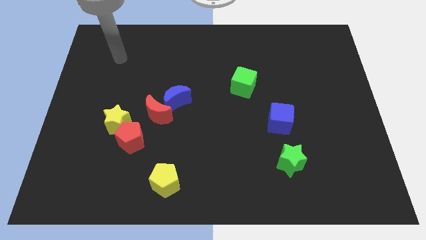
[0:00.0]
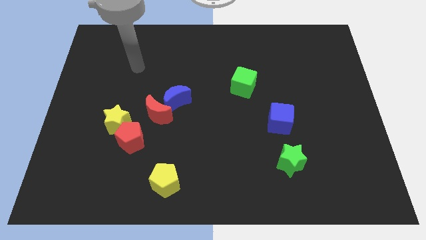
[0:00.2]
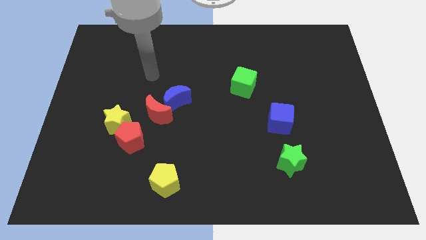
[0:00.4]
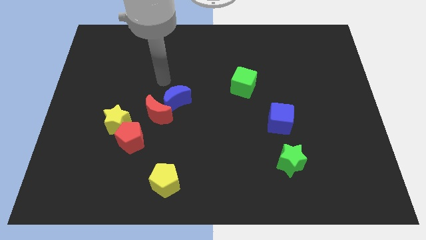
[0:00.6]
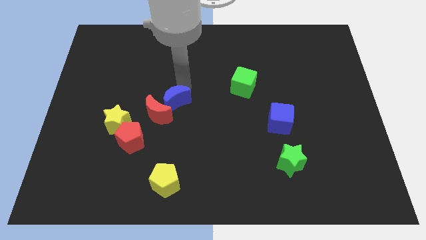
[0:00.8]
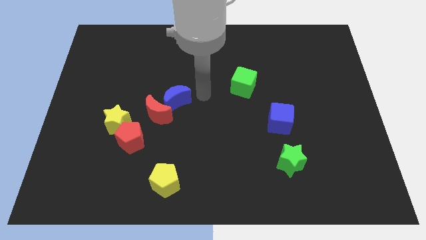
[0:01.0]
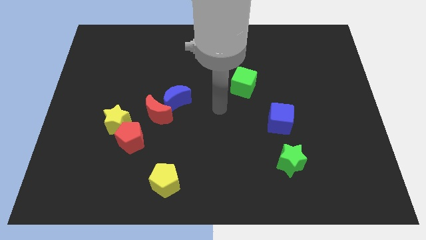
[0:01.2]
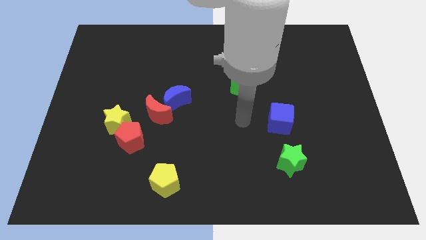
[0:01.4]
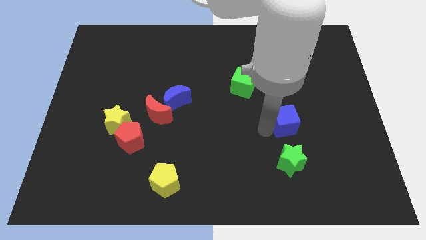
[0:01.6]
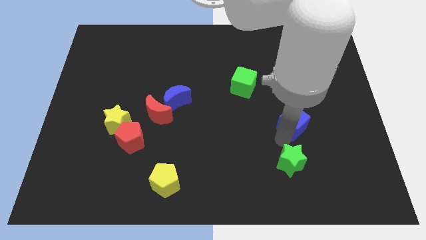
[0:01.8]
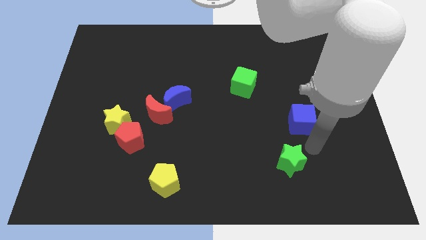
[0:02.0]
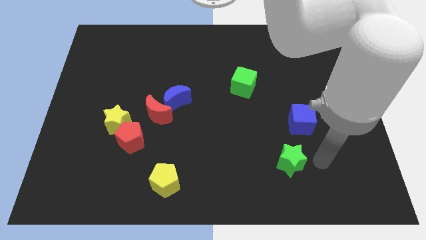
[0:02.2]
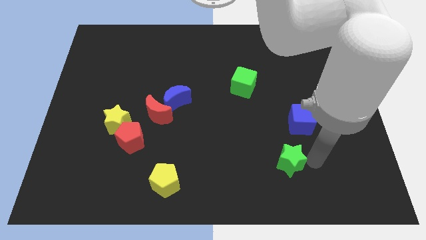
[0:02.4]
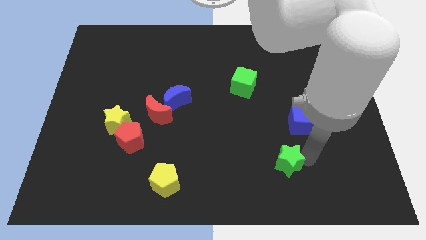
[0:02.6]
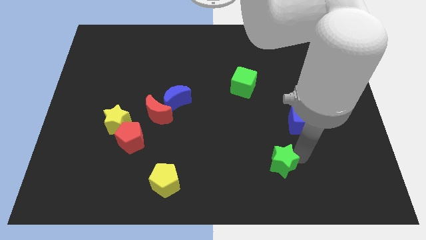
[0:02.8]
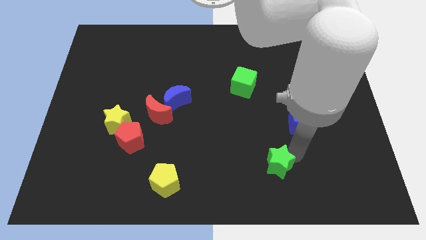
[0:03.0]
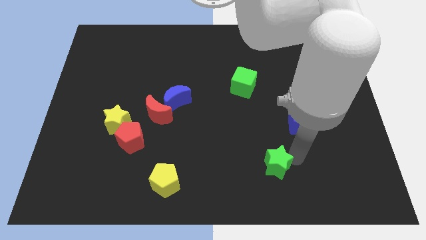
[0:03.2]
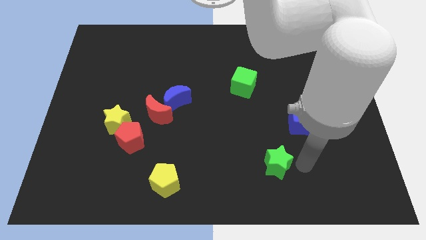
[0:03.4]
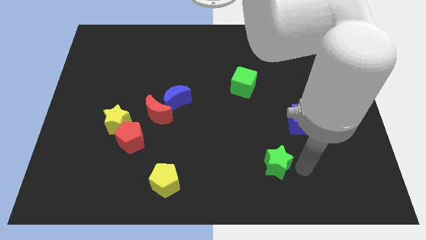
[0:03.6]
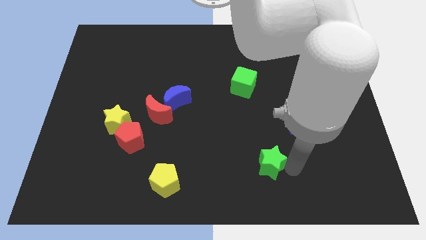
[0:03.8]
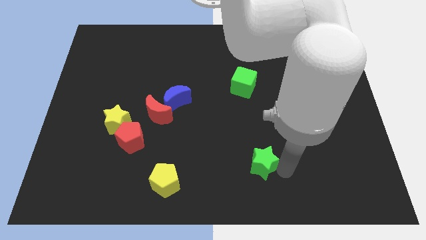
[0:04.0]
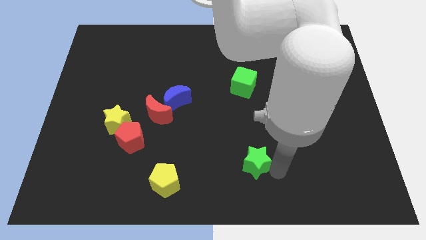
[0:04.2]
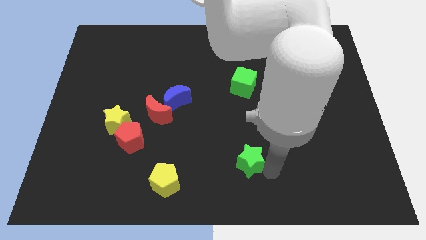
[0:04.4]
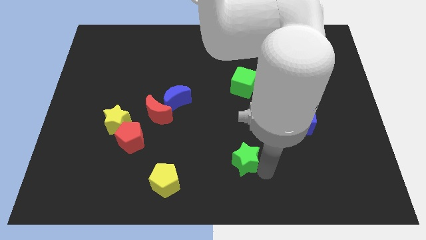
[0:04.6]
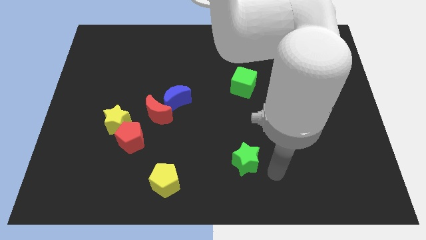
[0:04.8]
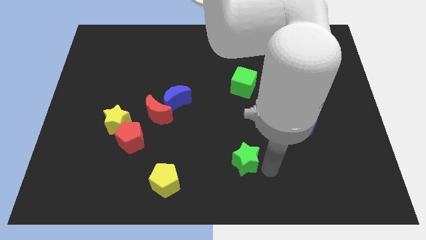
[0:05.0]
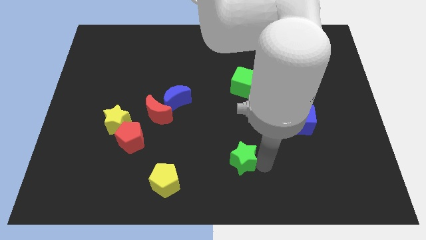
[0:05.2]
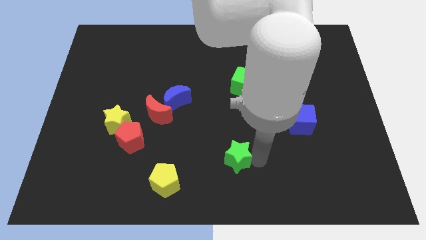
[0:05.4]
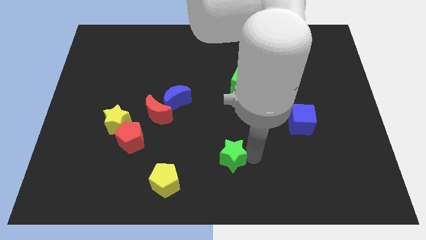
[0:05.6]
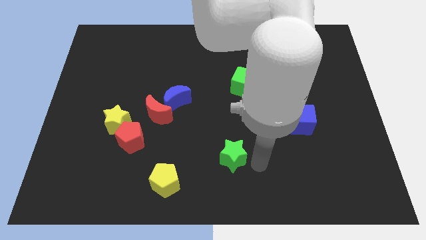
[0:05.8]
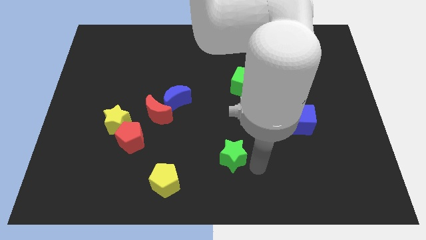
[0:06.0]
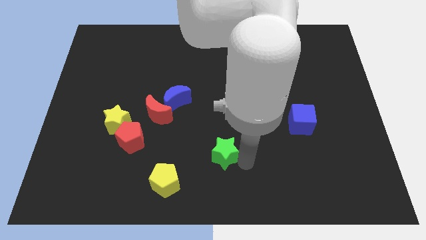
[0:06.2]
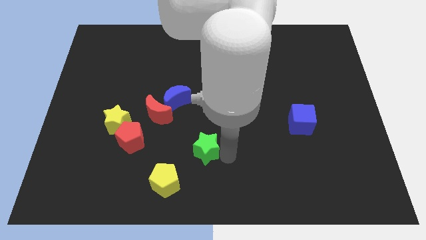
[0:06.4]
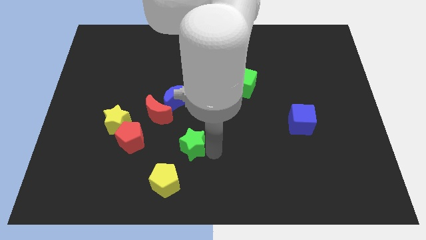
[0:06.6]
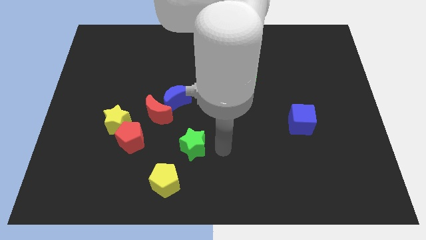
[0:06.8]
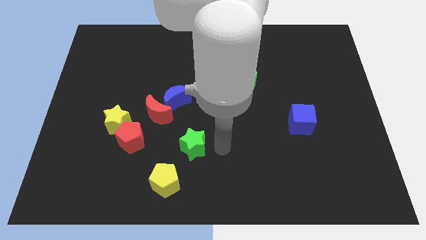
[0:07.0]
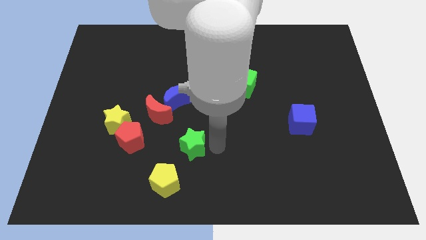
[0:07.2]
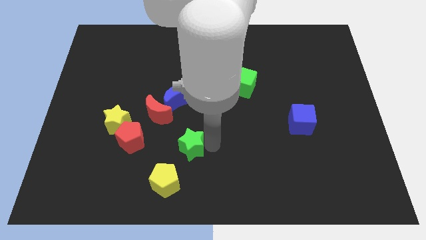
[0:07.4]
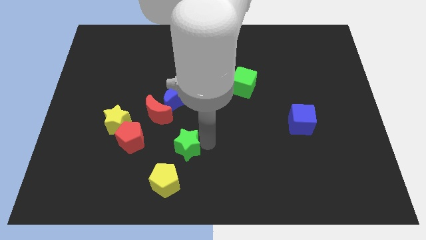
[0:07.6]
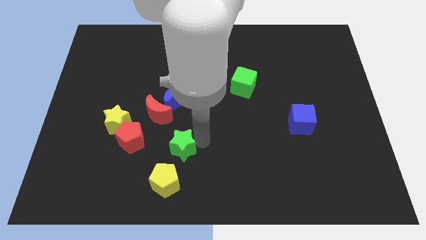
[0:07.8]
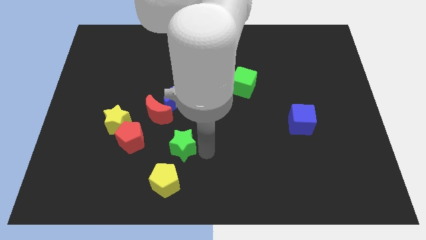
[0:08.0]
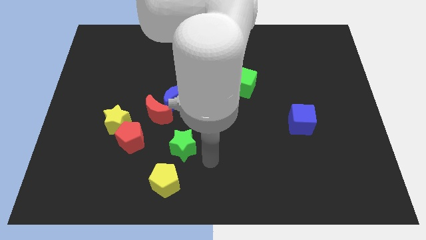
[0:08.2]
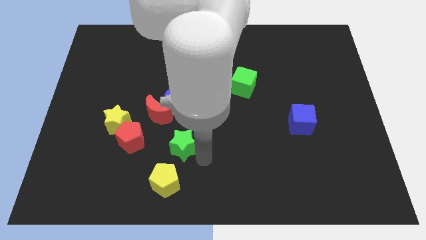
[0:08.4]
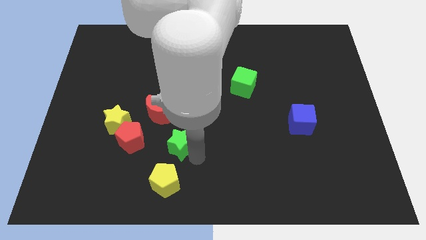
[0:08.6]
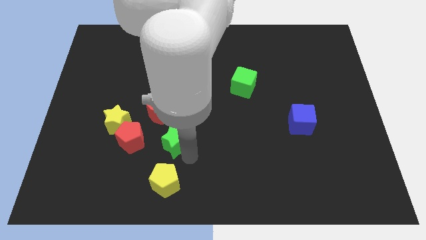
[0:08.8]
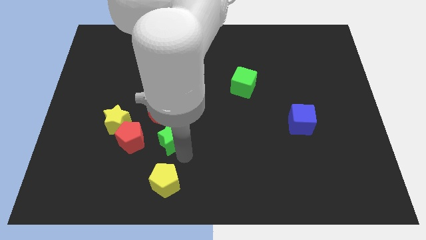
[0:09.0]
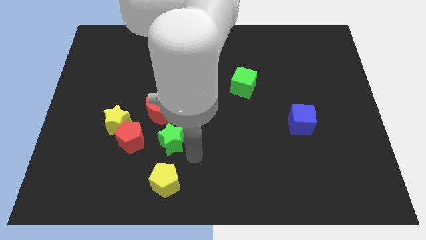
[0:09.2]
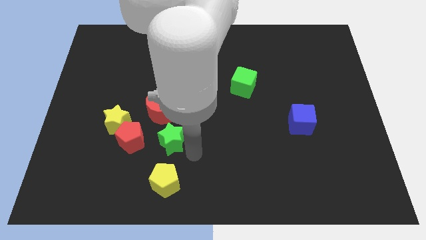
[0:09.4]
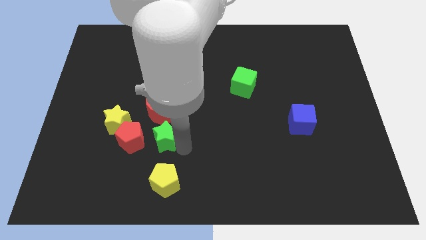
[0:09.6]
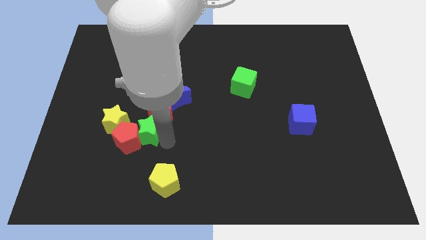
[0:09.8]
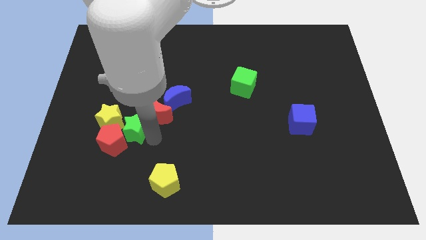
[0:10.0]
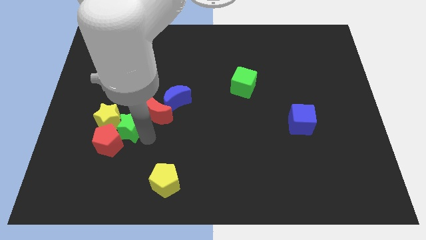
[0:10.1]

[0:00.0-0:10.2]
slide the green star close to the yellow star

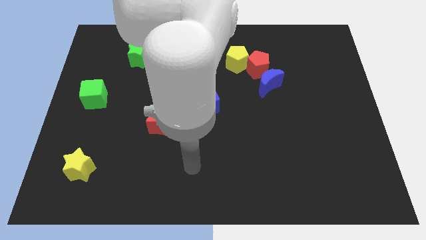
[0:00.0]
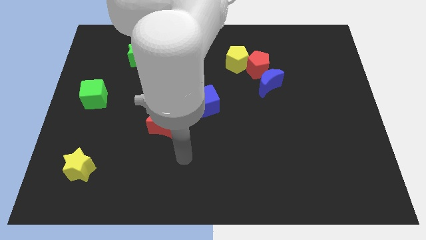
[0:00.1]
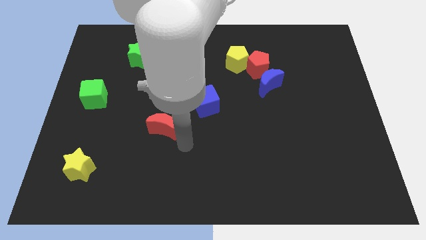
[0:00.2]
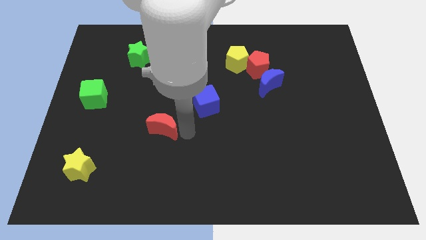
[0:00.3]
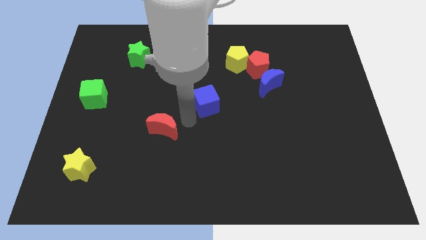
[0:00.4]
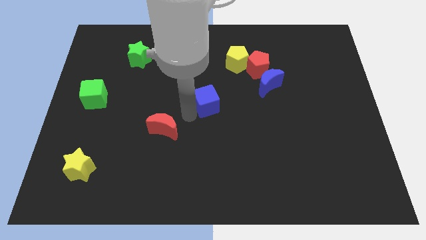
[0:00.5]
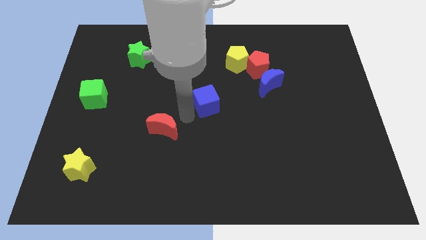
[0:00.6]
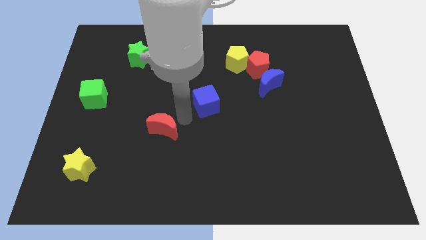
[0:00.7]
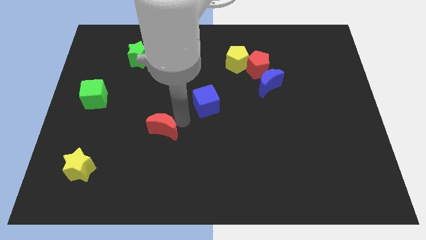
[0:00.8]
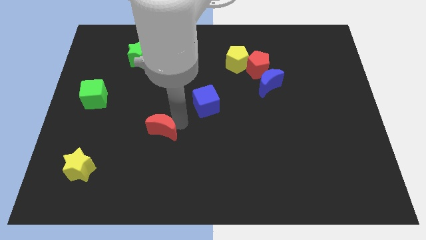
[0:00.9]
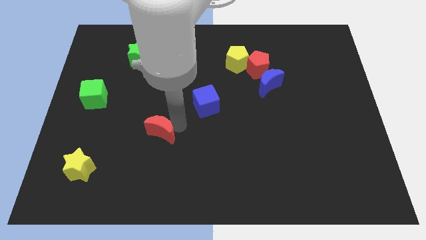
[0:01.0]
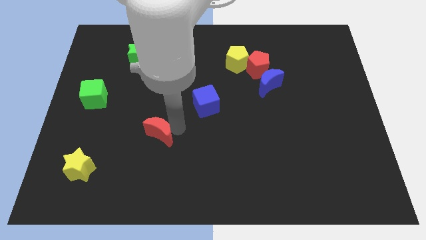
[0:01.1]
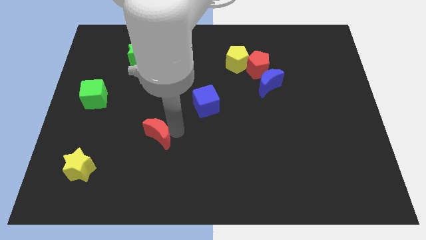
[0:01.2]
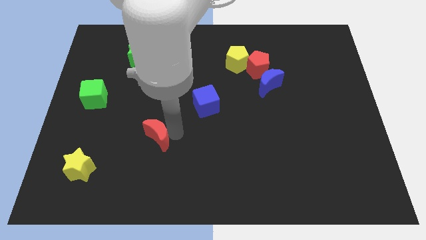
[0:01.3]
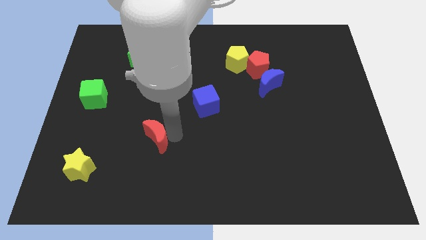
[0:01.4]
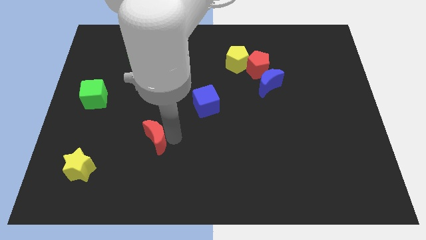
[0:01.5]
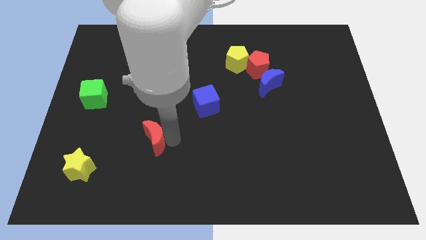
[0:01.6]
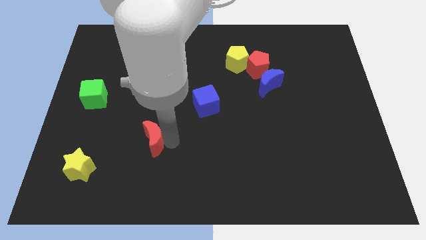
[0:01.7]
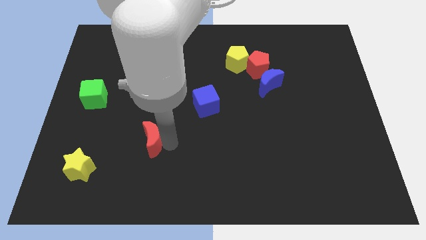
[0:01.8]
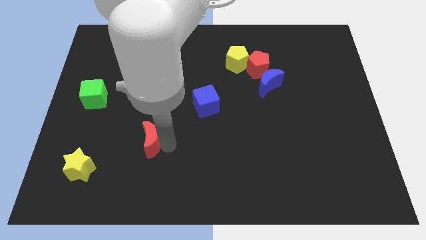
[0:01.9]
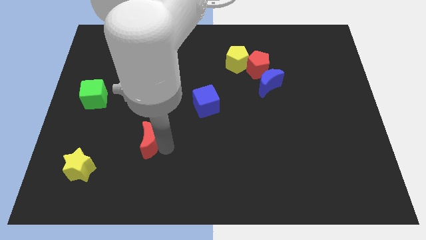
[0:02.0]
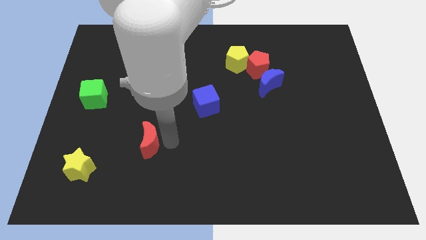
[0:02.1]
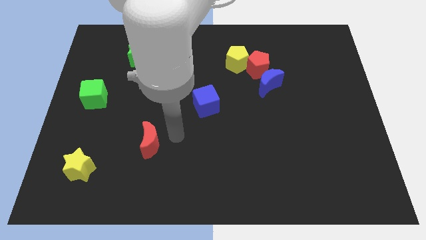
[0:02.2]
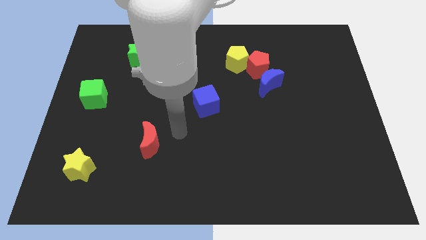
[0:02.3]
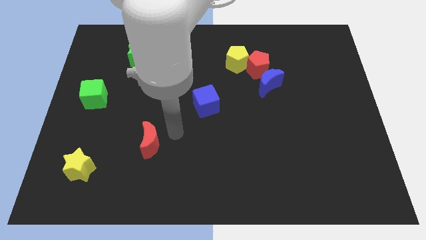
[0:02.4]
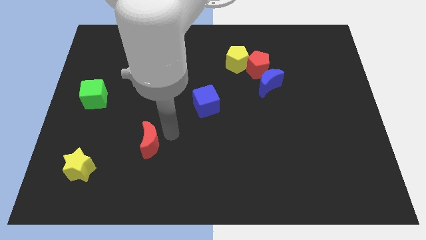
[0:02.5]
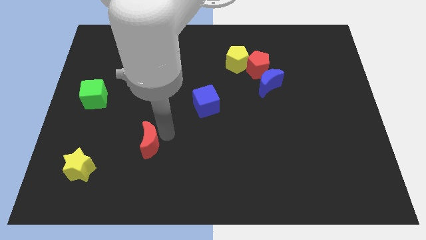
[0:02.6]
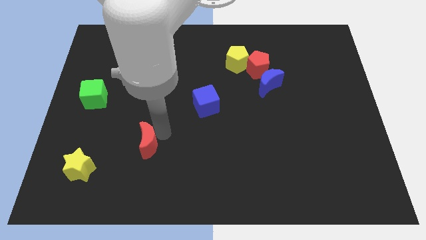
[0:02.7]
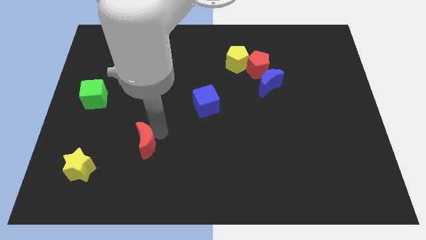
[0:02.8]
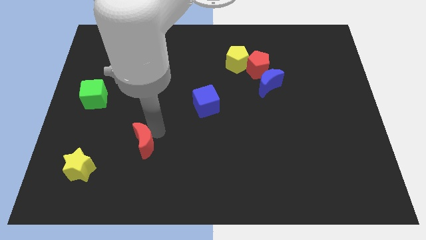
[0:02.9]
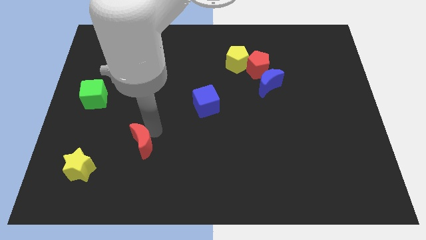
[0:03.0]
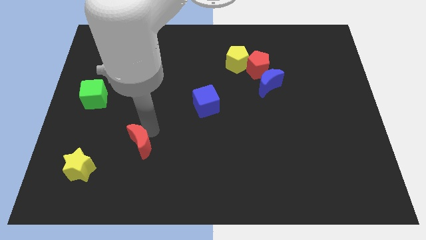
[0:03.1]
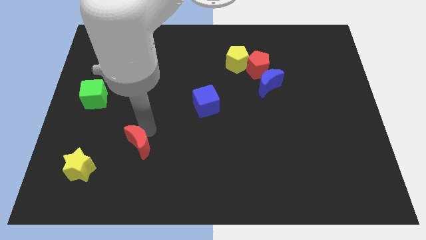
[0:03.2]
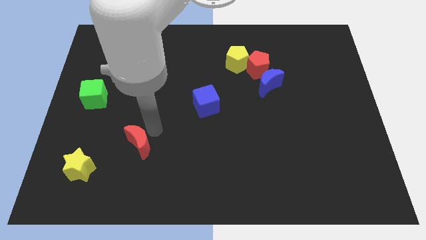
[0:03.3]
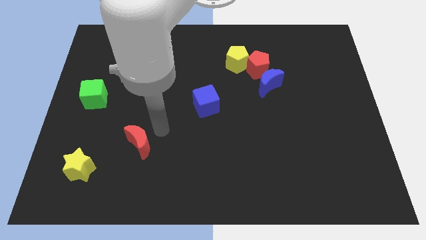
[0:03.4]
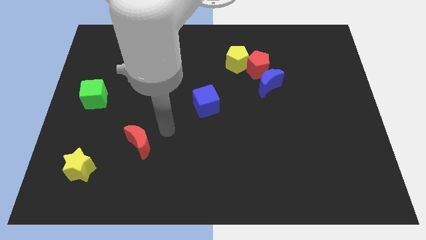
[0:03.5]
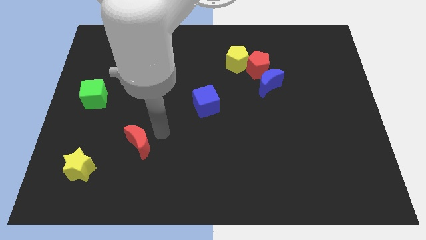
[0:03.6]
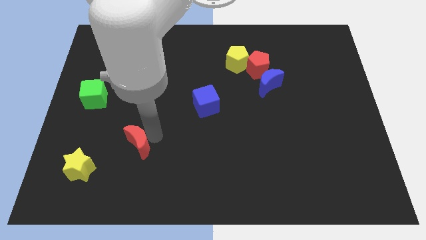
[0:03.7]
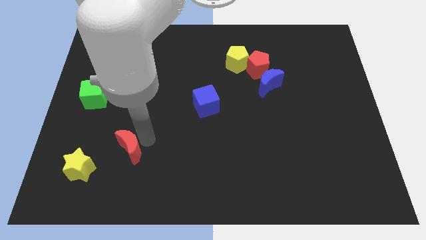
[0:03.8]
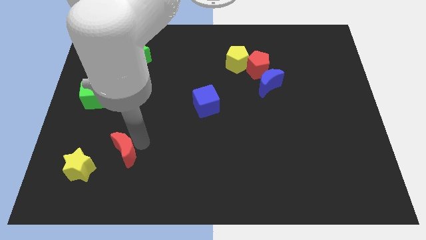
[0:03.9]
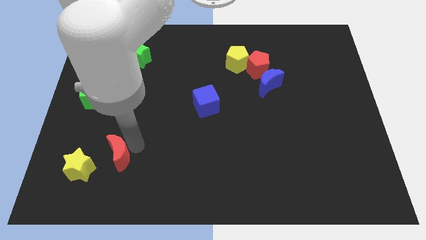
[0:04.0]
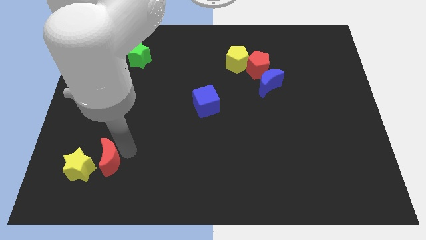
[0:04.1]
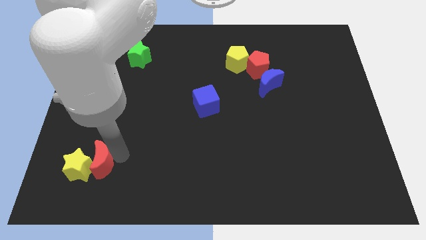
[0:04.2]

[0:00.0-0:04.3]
push the red moon close to the yellow star
